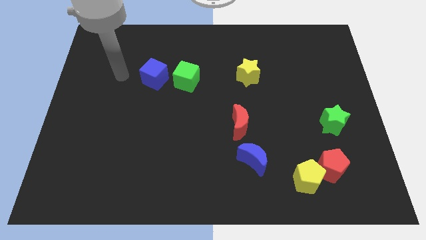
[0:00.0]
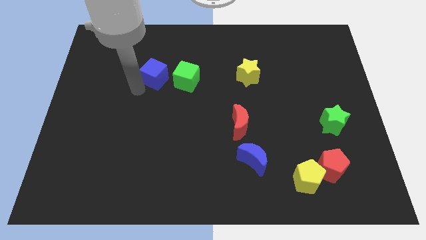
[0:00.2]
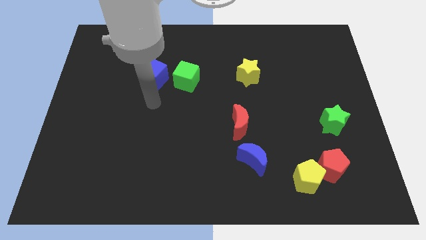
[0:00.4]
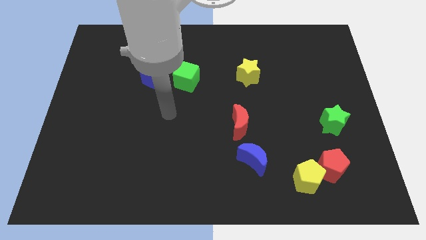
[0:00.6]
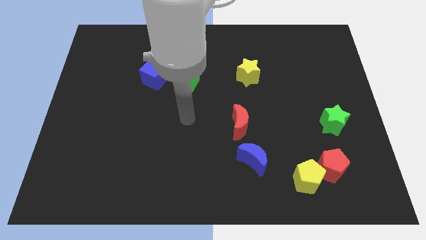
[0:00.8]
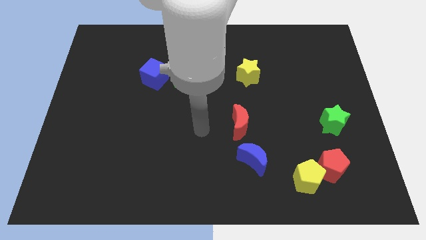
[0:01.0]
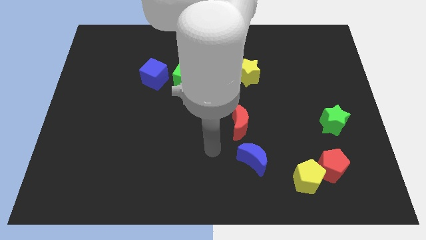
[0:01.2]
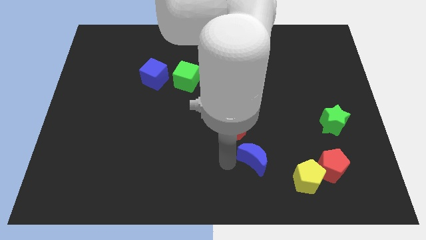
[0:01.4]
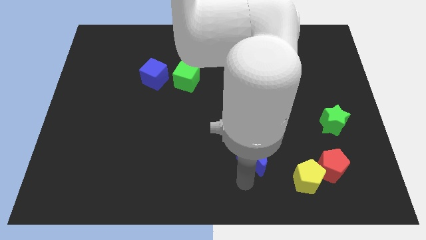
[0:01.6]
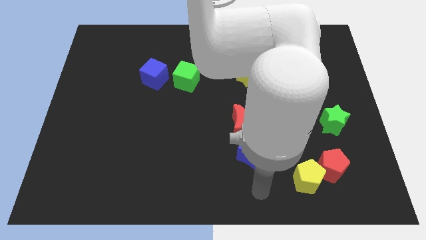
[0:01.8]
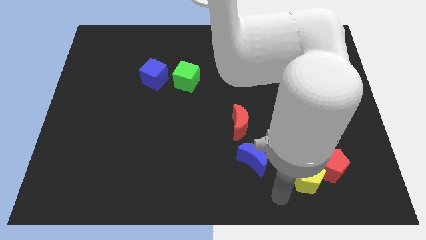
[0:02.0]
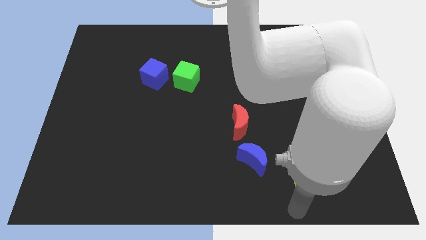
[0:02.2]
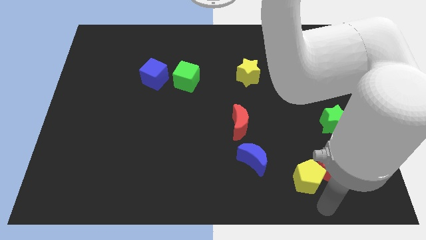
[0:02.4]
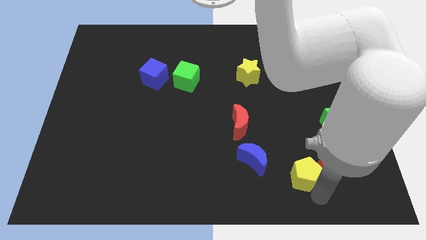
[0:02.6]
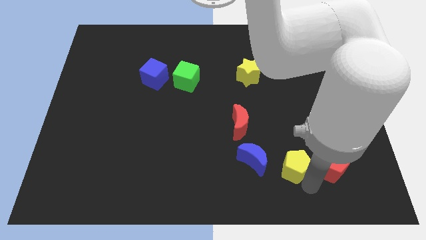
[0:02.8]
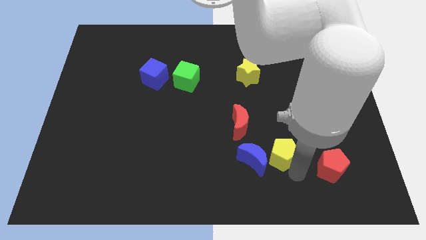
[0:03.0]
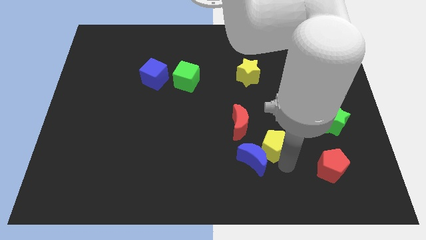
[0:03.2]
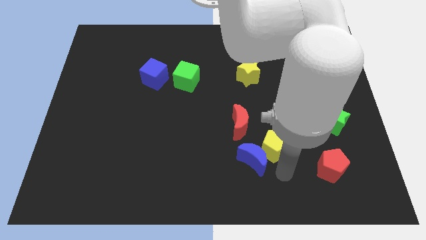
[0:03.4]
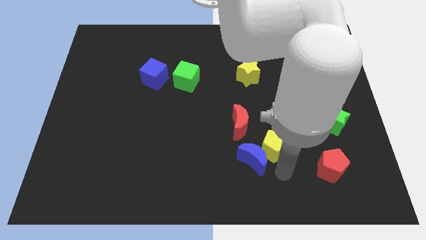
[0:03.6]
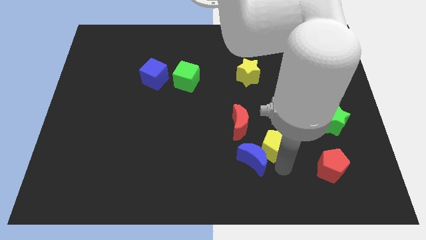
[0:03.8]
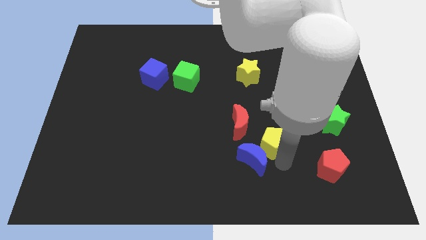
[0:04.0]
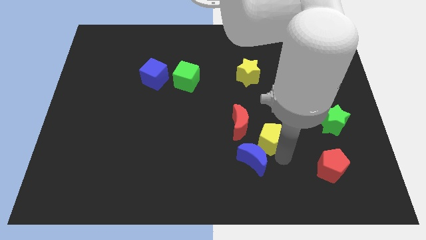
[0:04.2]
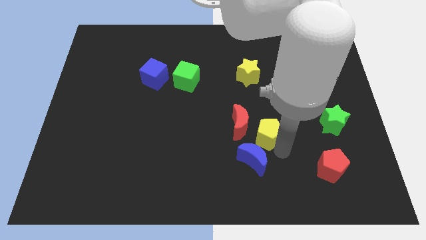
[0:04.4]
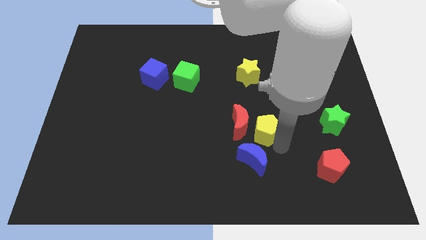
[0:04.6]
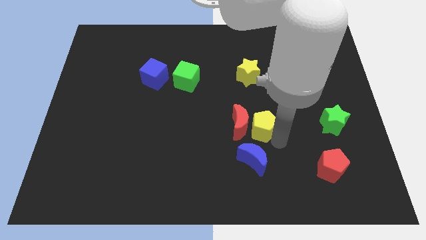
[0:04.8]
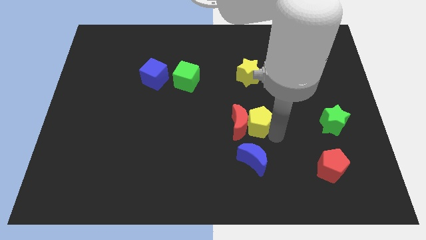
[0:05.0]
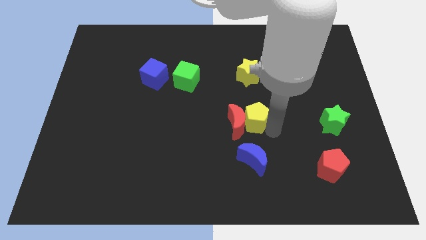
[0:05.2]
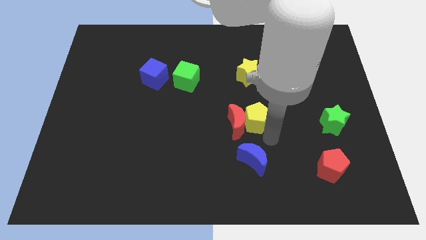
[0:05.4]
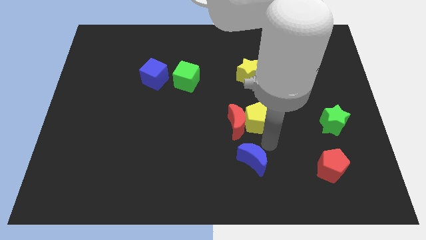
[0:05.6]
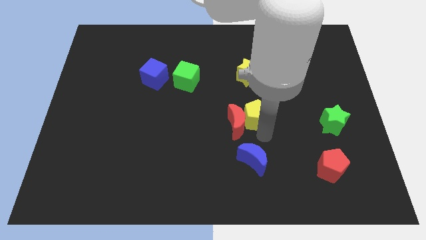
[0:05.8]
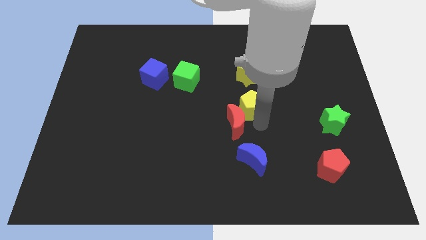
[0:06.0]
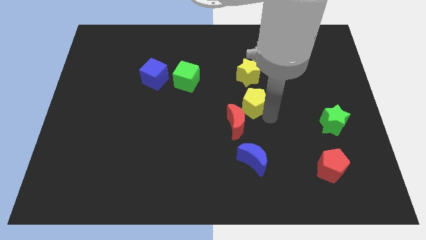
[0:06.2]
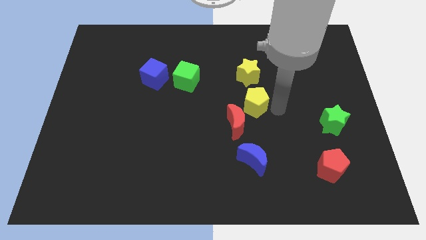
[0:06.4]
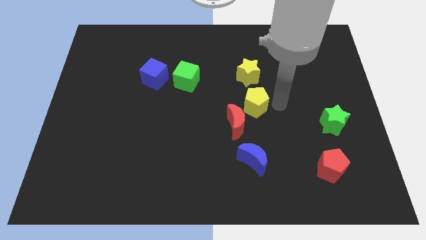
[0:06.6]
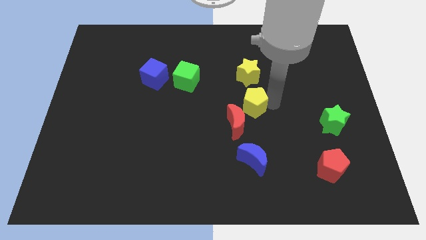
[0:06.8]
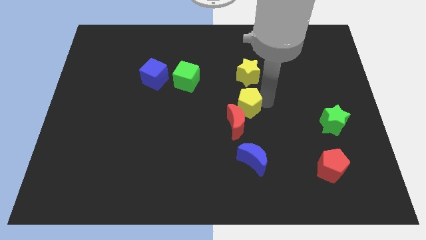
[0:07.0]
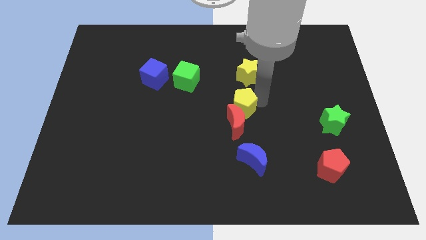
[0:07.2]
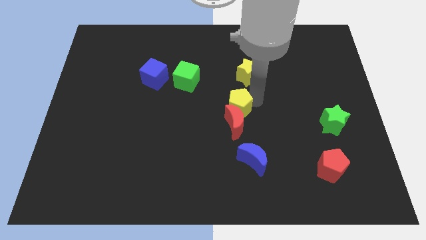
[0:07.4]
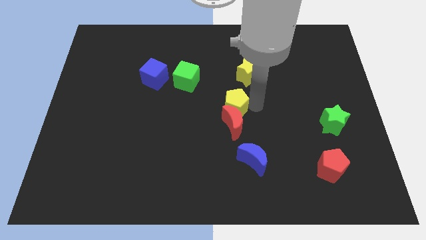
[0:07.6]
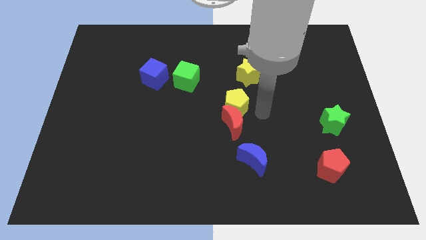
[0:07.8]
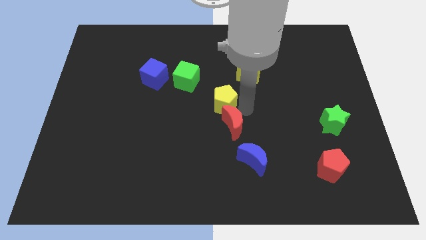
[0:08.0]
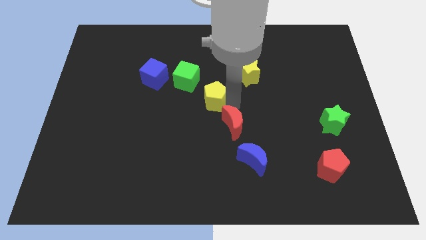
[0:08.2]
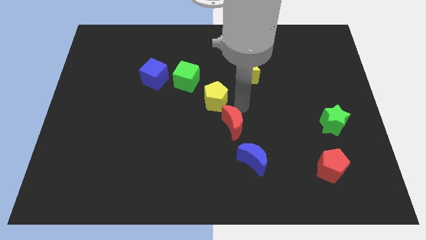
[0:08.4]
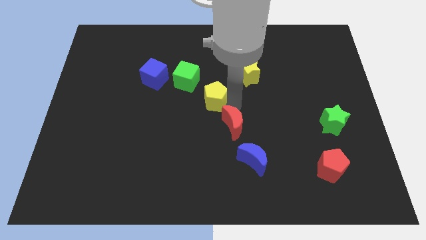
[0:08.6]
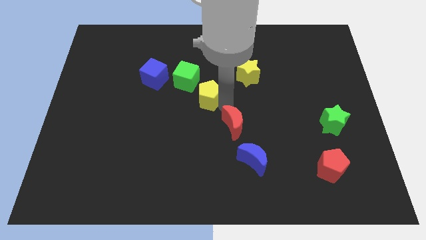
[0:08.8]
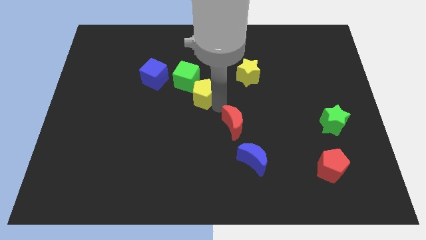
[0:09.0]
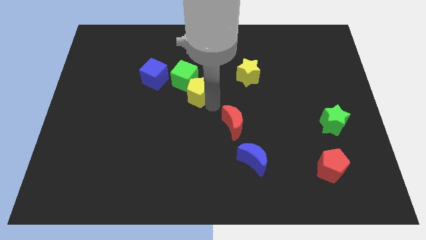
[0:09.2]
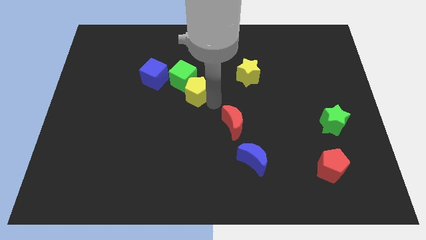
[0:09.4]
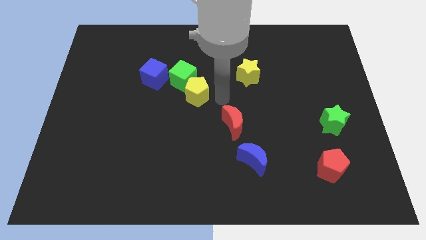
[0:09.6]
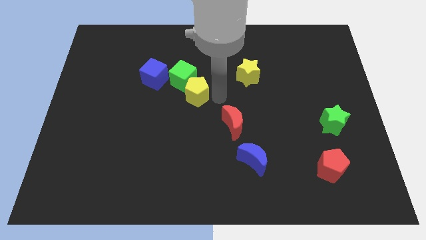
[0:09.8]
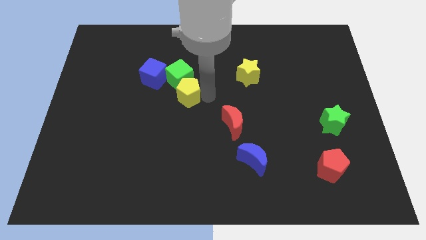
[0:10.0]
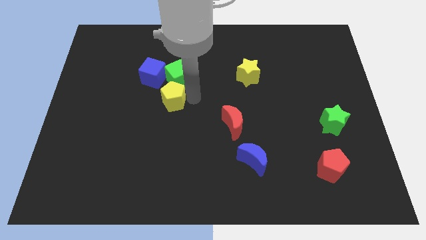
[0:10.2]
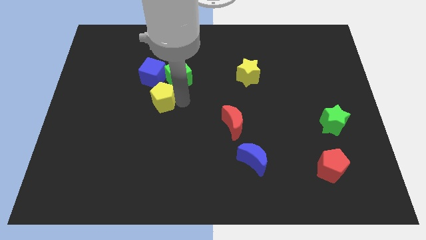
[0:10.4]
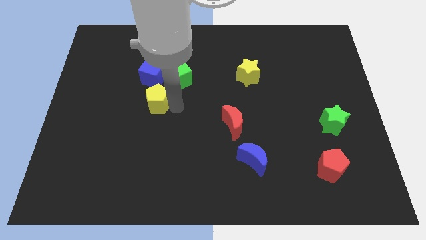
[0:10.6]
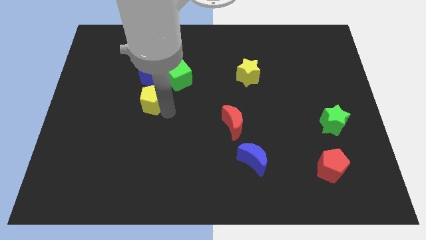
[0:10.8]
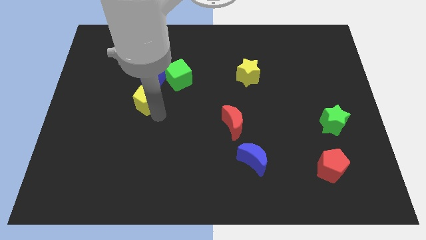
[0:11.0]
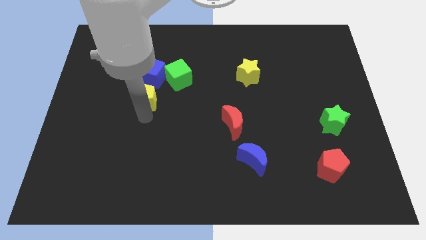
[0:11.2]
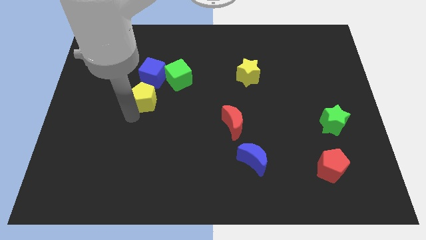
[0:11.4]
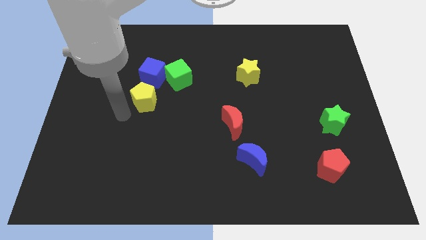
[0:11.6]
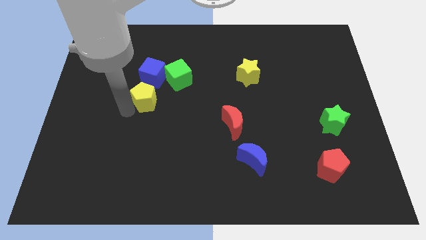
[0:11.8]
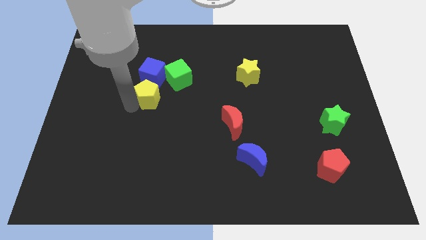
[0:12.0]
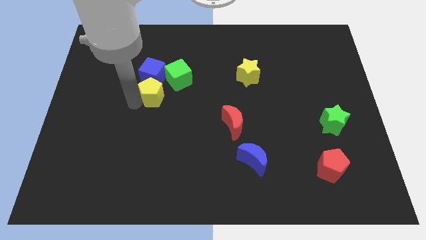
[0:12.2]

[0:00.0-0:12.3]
push the yellow pentagon to the blue cube

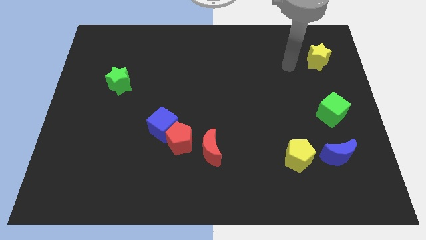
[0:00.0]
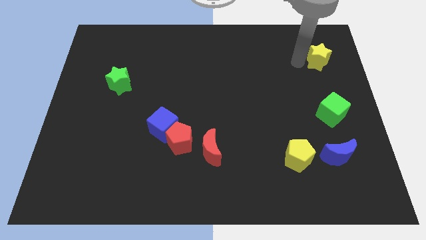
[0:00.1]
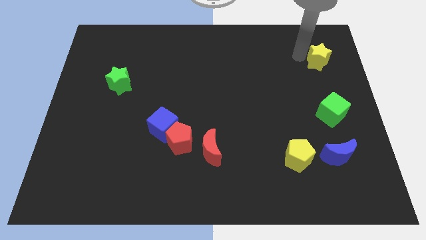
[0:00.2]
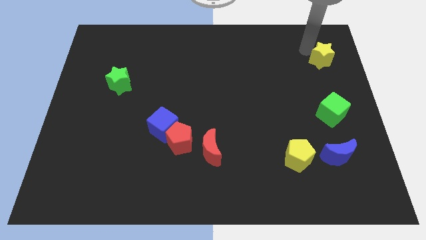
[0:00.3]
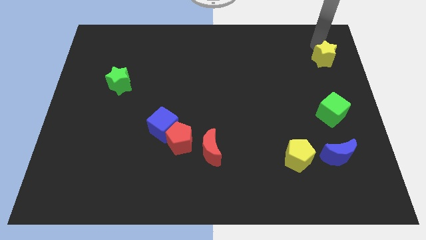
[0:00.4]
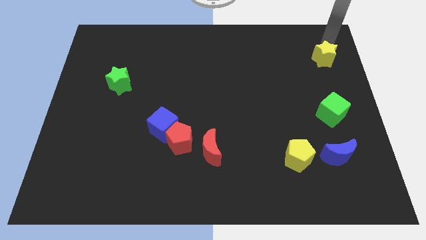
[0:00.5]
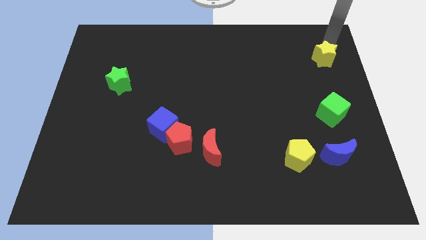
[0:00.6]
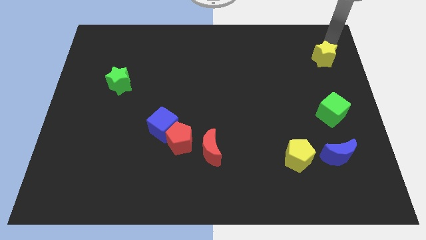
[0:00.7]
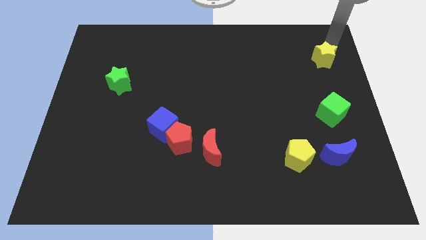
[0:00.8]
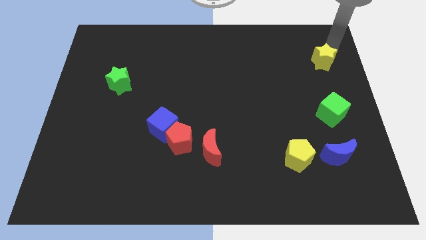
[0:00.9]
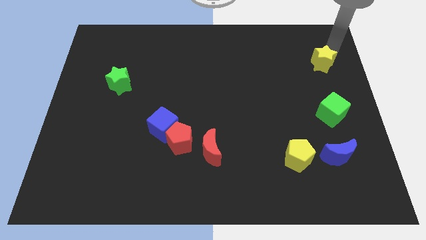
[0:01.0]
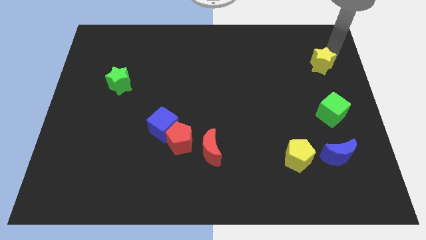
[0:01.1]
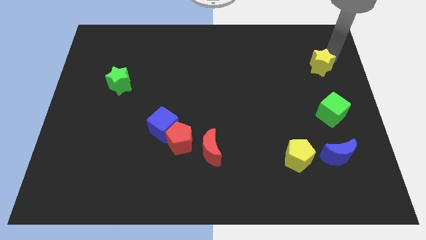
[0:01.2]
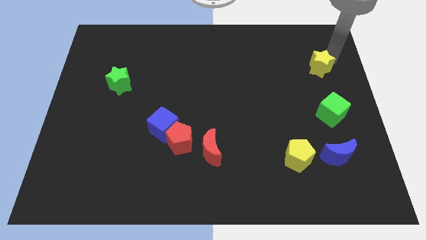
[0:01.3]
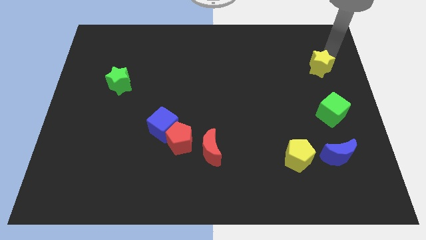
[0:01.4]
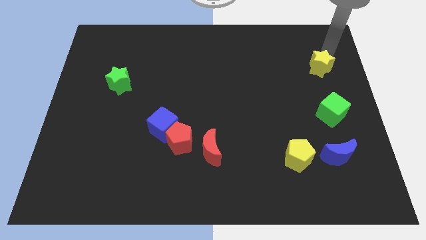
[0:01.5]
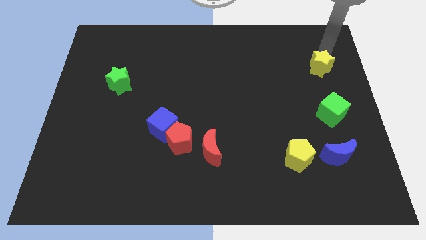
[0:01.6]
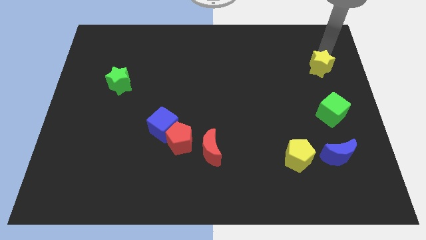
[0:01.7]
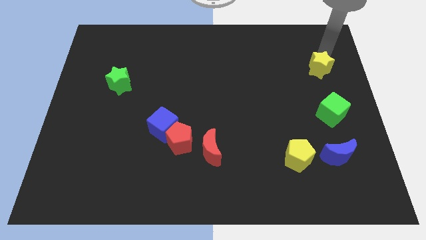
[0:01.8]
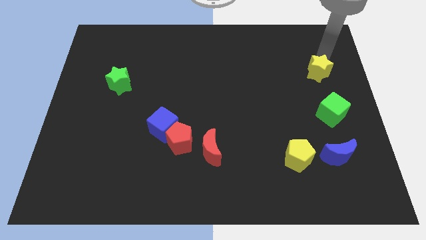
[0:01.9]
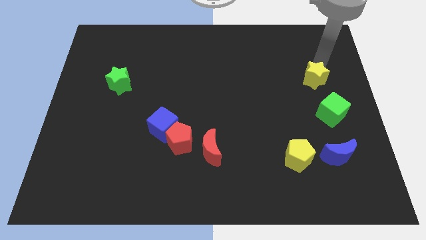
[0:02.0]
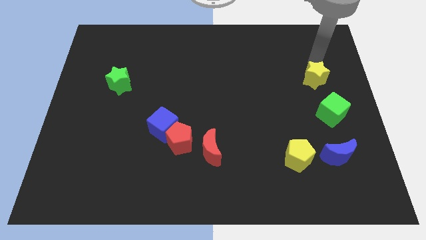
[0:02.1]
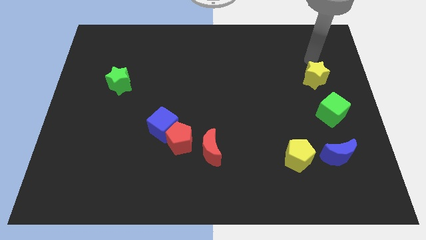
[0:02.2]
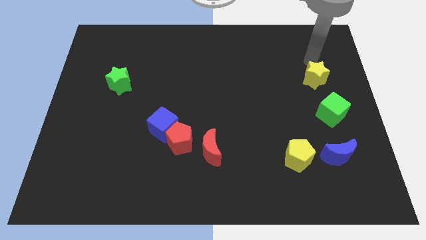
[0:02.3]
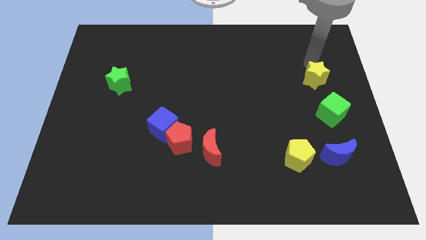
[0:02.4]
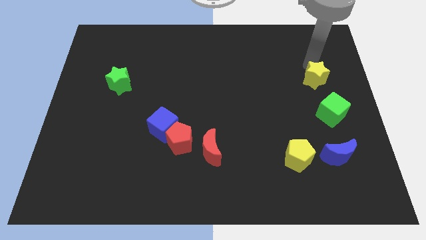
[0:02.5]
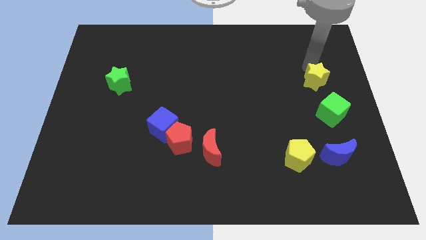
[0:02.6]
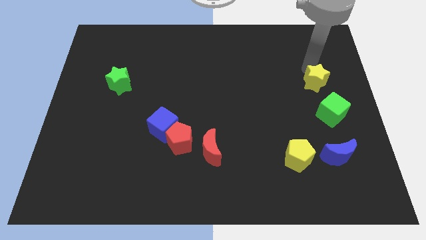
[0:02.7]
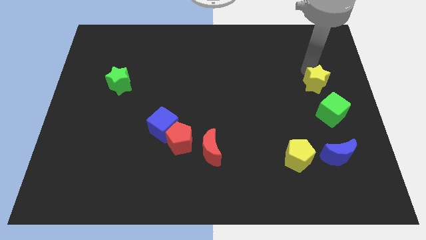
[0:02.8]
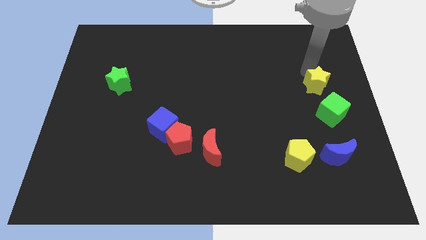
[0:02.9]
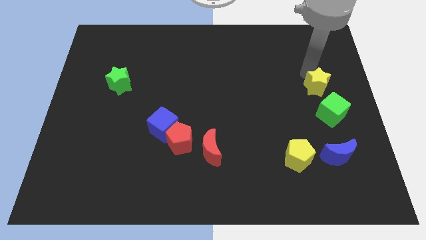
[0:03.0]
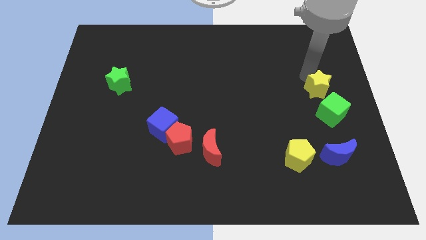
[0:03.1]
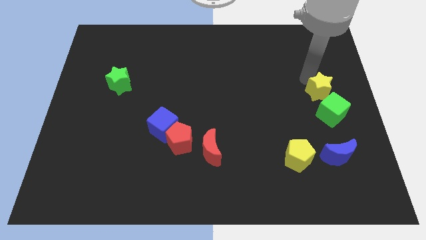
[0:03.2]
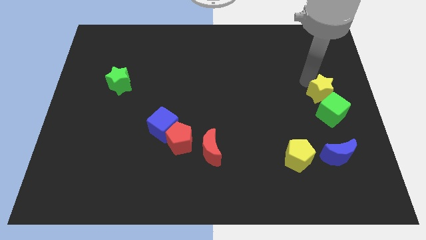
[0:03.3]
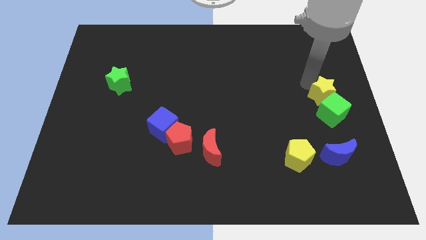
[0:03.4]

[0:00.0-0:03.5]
push the yellow star next to the green cube
